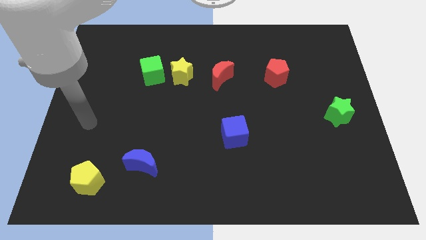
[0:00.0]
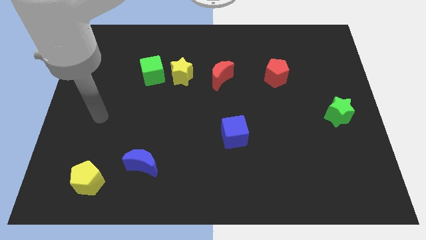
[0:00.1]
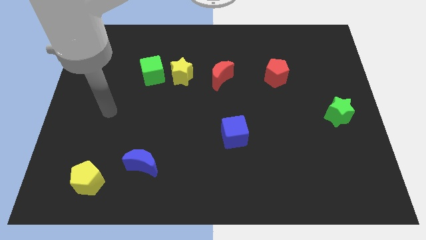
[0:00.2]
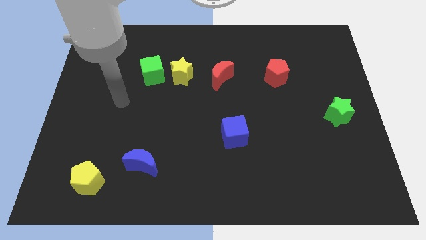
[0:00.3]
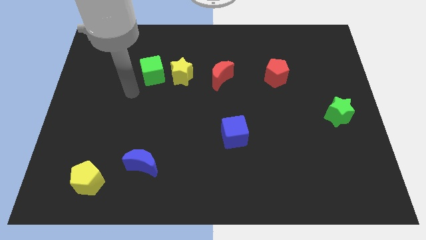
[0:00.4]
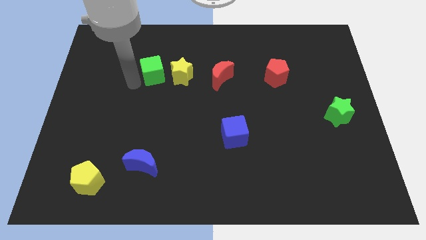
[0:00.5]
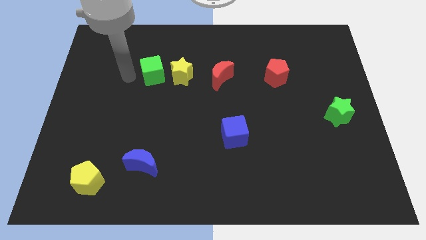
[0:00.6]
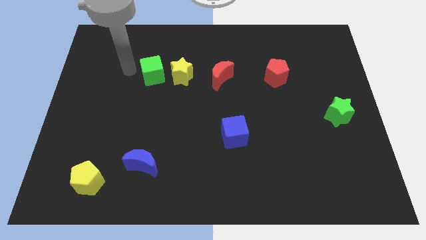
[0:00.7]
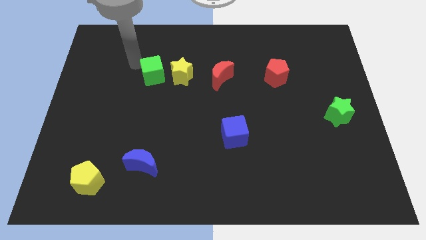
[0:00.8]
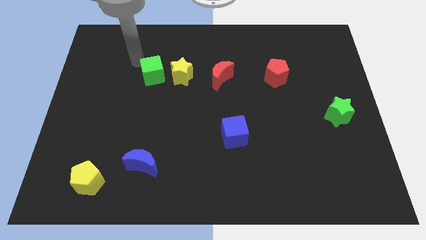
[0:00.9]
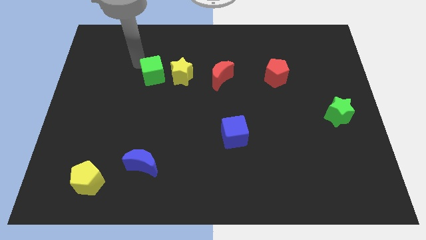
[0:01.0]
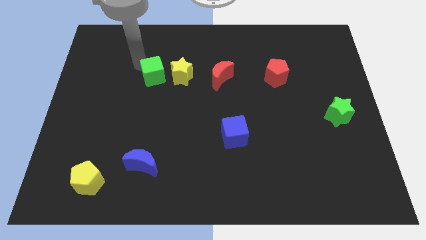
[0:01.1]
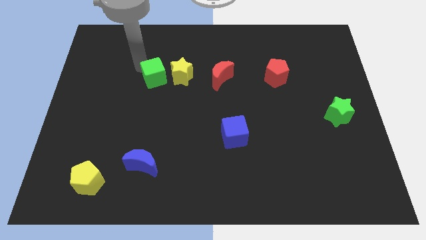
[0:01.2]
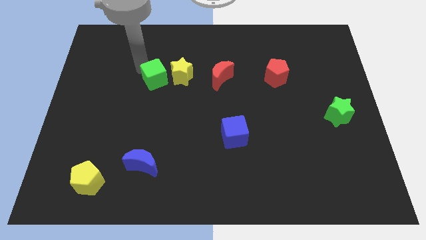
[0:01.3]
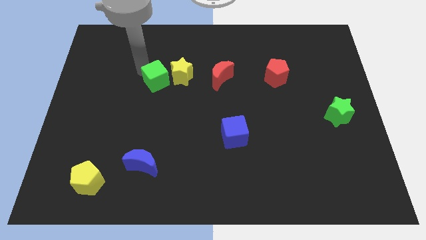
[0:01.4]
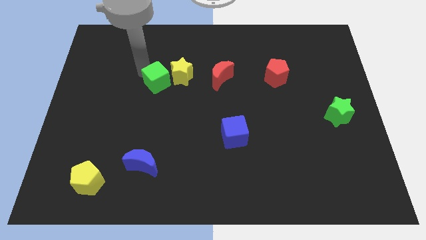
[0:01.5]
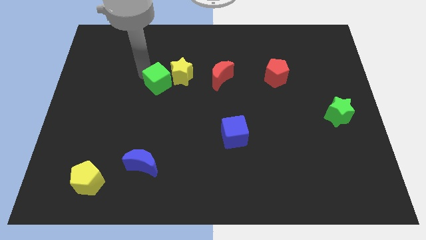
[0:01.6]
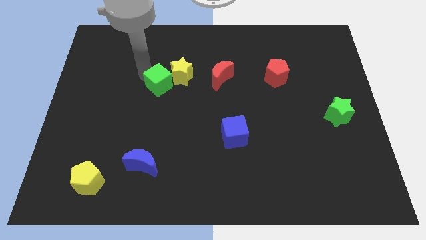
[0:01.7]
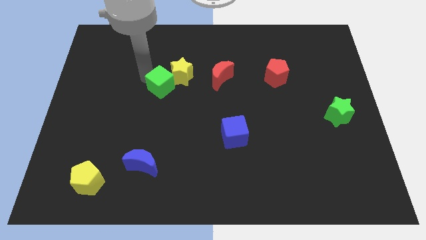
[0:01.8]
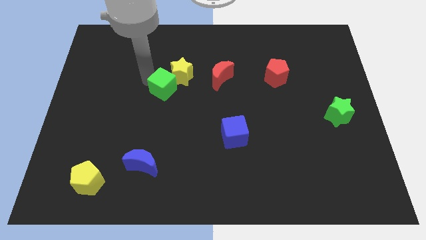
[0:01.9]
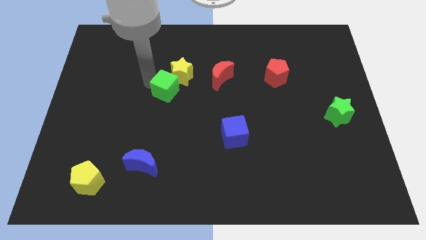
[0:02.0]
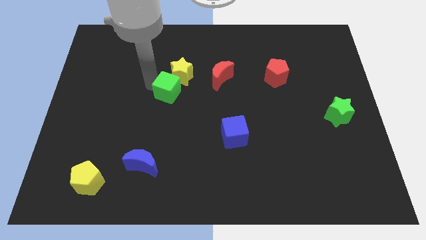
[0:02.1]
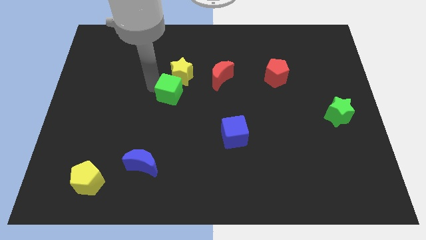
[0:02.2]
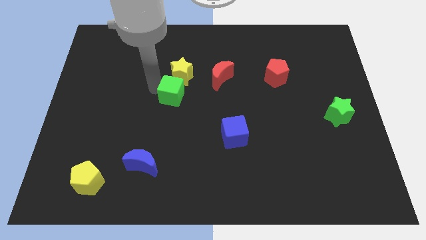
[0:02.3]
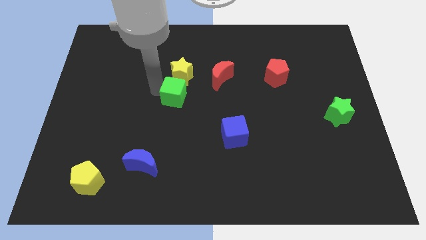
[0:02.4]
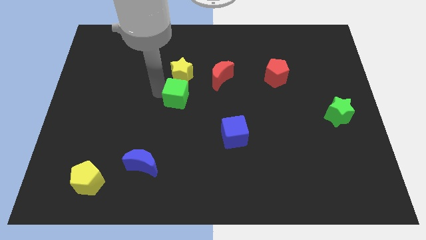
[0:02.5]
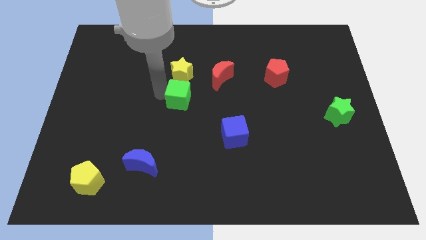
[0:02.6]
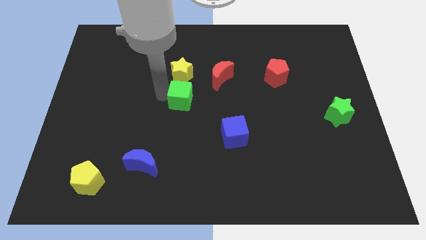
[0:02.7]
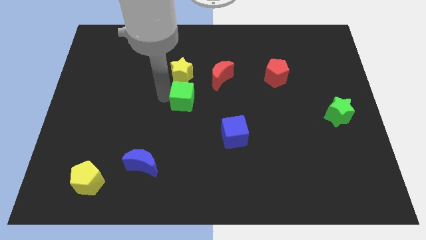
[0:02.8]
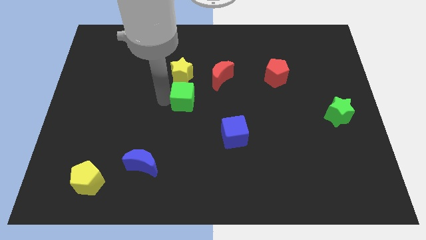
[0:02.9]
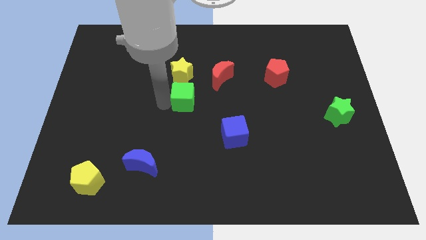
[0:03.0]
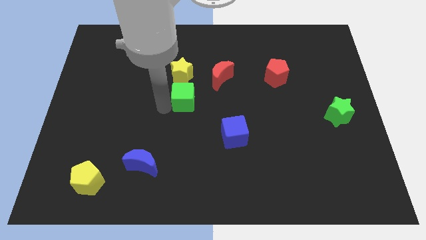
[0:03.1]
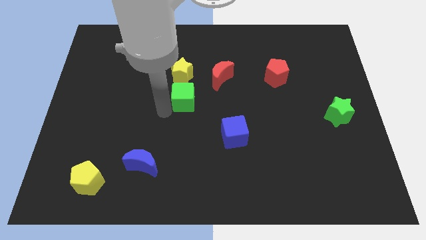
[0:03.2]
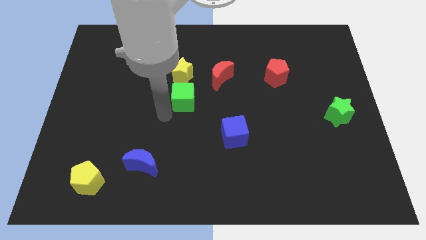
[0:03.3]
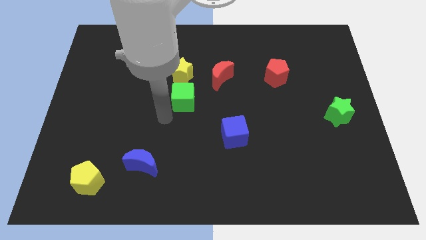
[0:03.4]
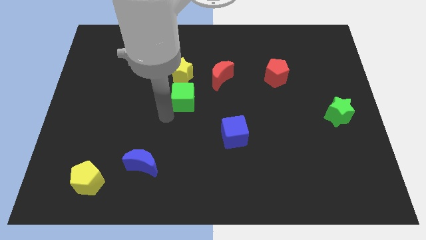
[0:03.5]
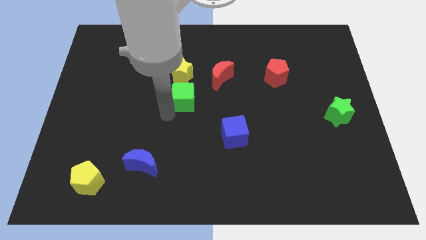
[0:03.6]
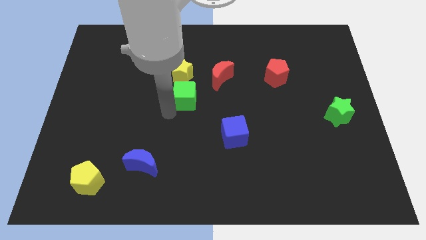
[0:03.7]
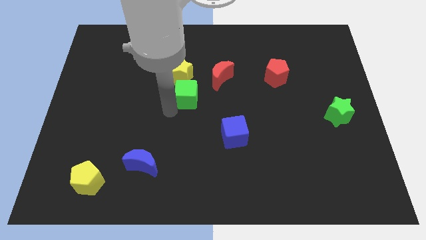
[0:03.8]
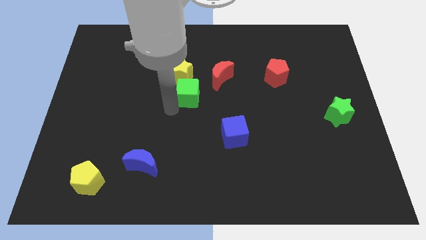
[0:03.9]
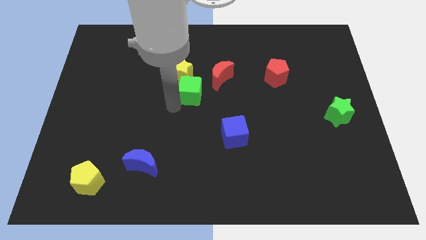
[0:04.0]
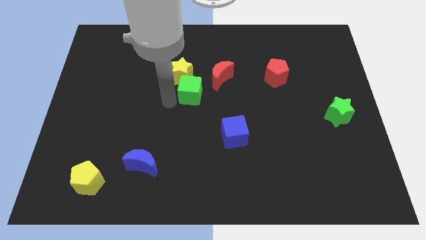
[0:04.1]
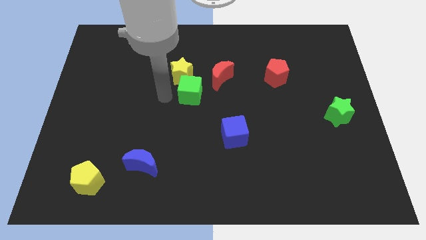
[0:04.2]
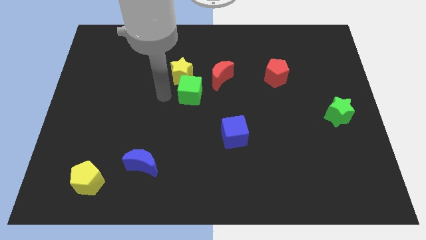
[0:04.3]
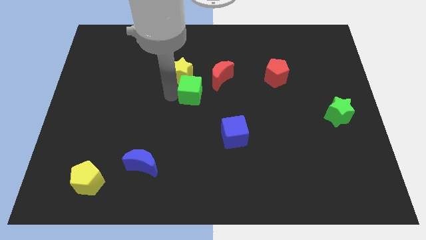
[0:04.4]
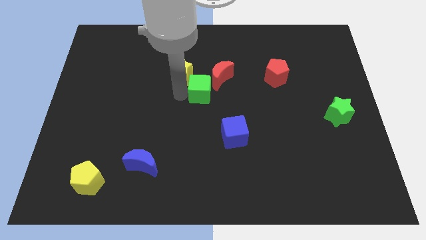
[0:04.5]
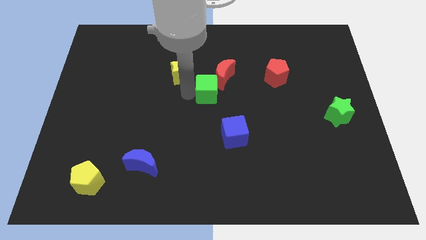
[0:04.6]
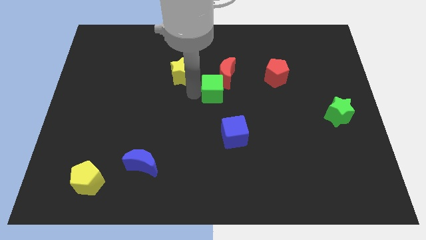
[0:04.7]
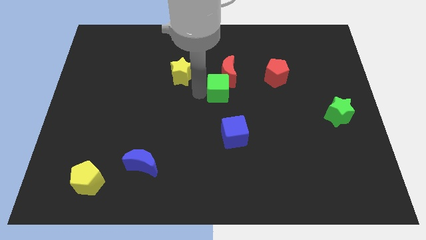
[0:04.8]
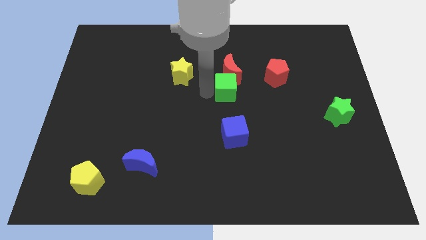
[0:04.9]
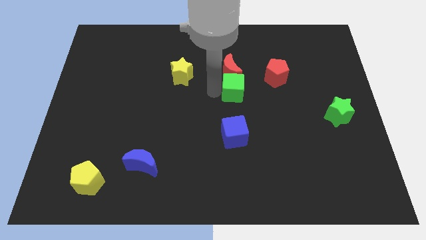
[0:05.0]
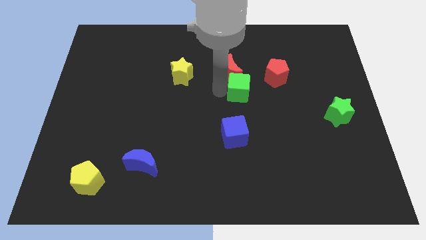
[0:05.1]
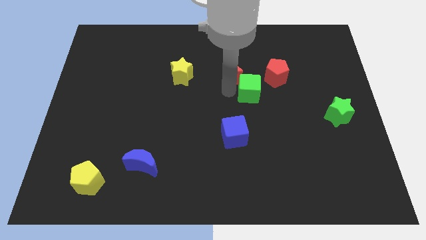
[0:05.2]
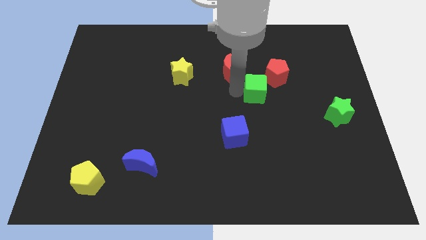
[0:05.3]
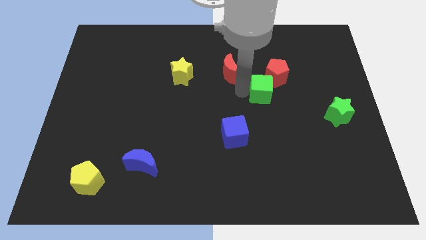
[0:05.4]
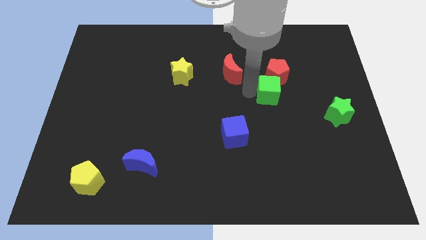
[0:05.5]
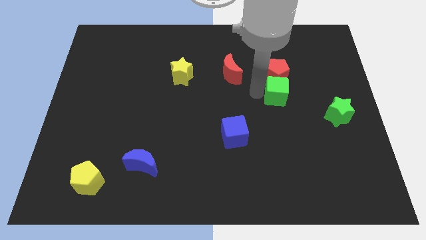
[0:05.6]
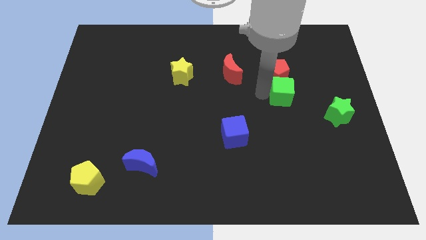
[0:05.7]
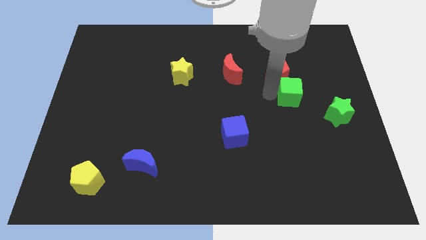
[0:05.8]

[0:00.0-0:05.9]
move the green cube to the top left side of the green star
